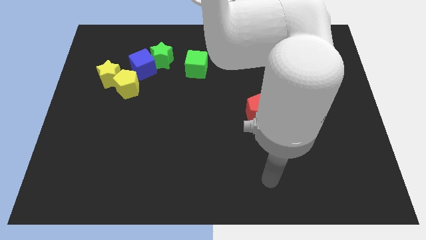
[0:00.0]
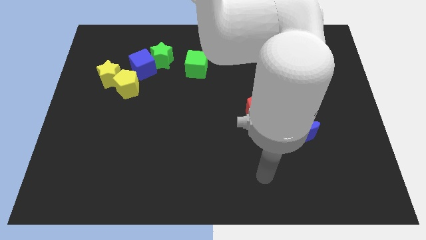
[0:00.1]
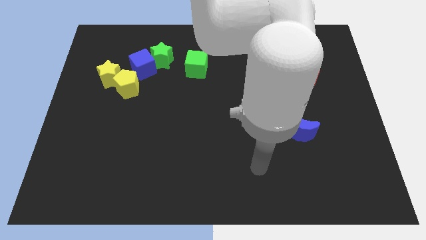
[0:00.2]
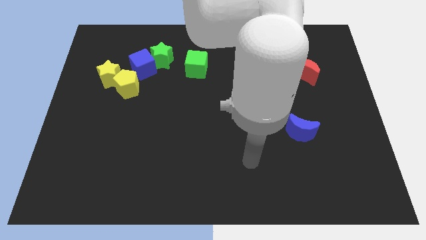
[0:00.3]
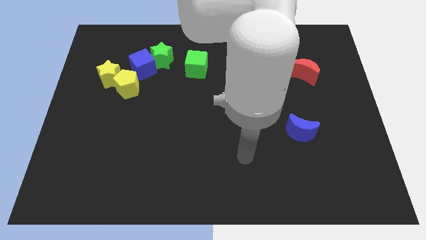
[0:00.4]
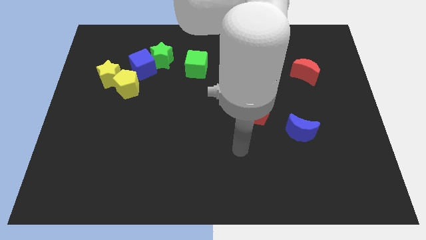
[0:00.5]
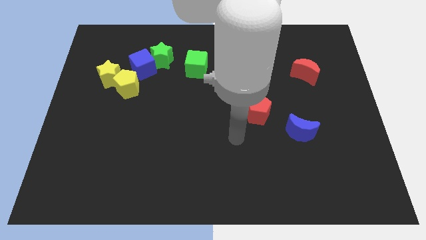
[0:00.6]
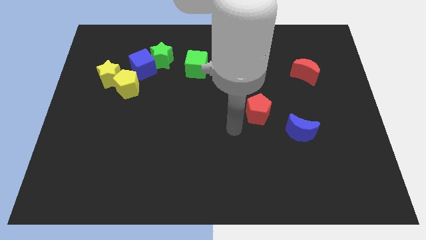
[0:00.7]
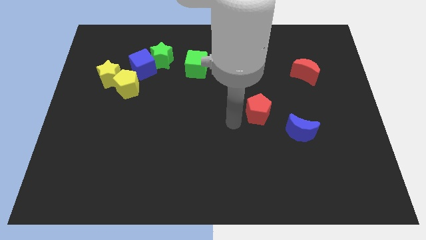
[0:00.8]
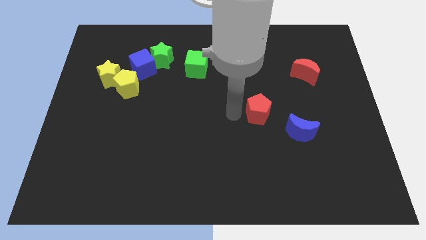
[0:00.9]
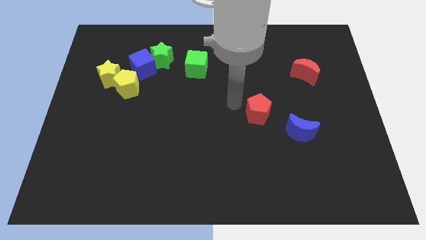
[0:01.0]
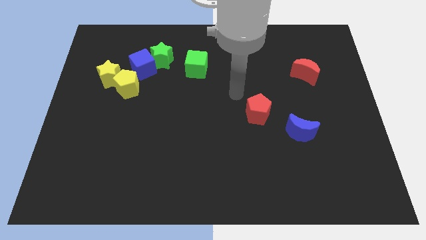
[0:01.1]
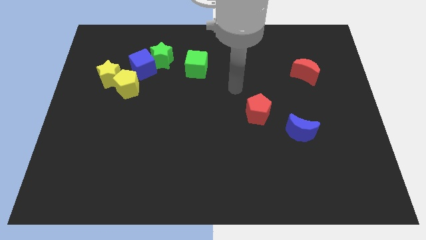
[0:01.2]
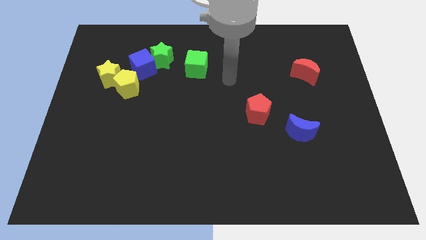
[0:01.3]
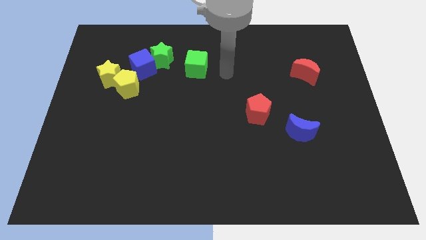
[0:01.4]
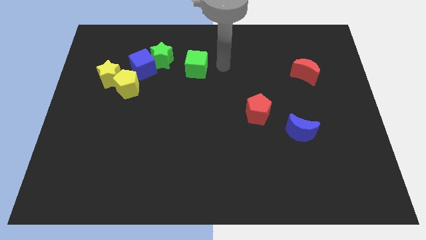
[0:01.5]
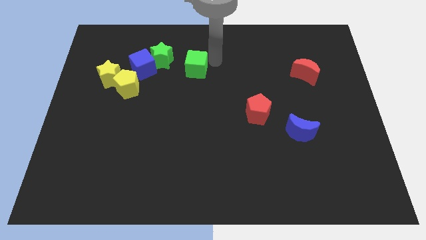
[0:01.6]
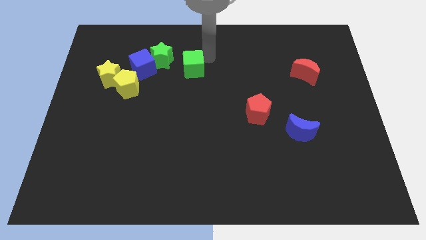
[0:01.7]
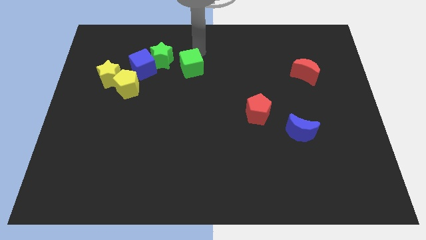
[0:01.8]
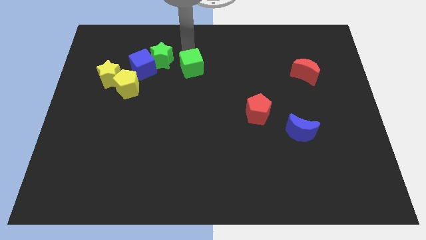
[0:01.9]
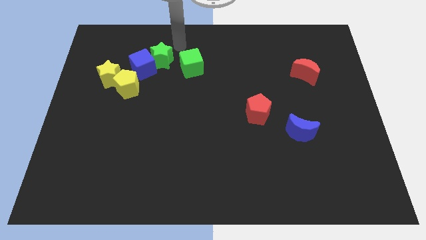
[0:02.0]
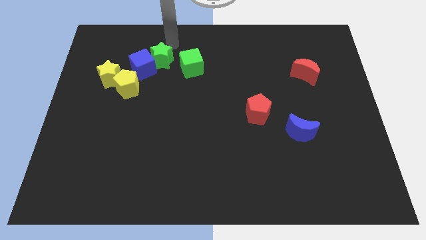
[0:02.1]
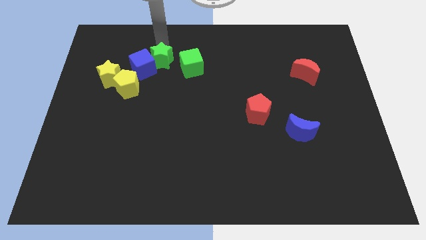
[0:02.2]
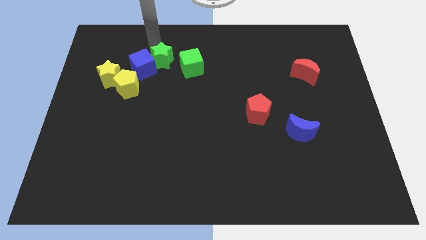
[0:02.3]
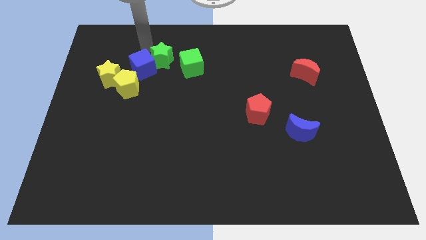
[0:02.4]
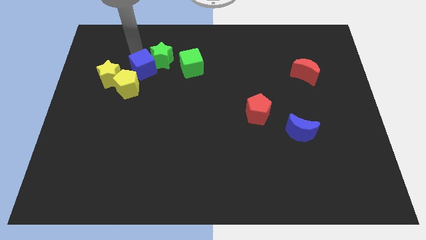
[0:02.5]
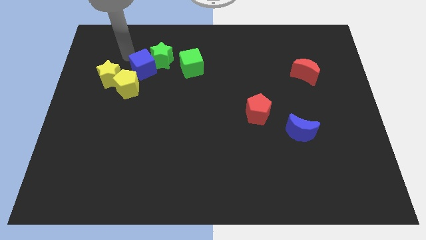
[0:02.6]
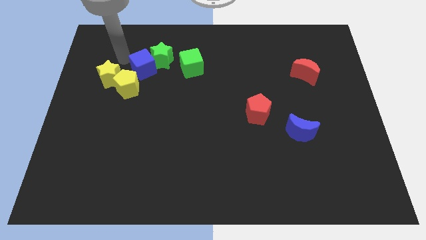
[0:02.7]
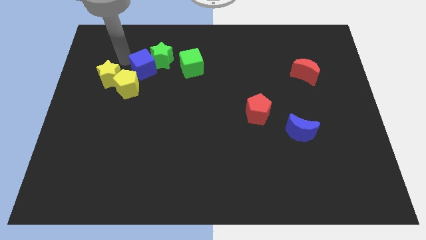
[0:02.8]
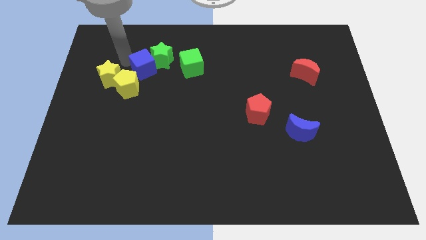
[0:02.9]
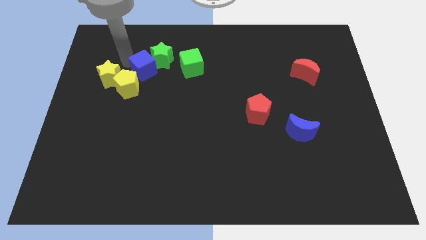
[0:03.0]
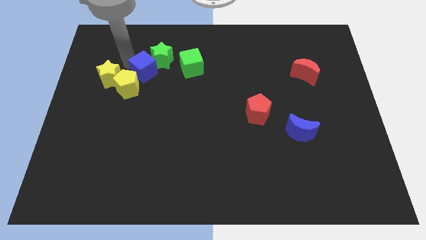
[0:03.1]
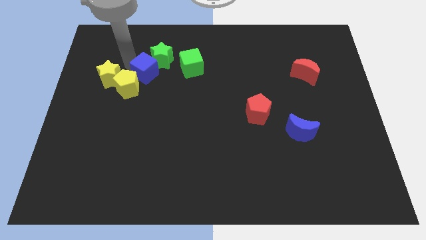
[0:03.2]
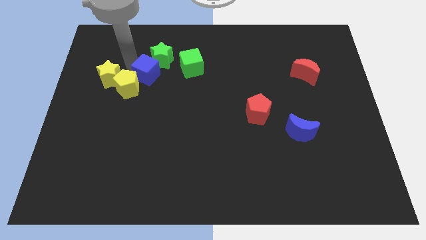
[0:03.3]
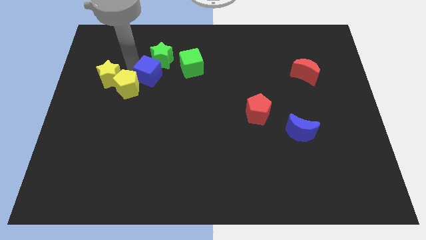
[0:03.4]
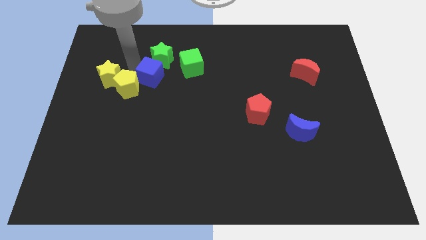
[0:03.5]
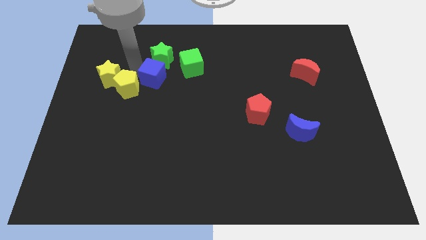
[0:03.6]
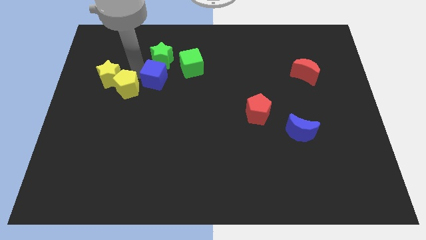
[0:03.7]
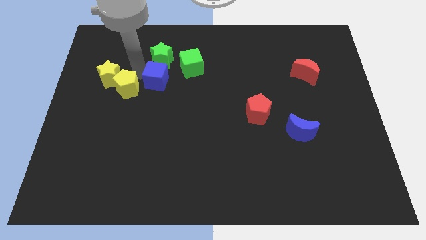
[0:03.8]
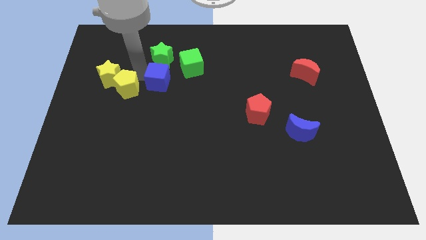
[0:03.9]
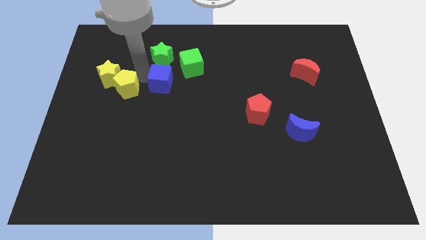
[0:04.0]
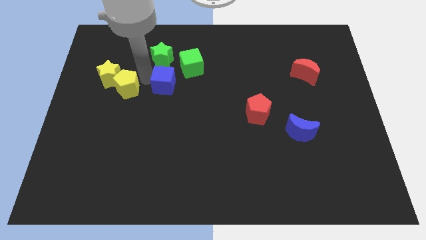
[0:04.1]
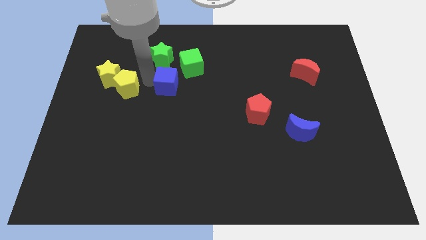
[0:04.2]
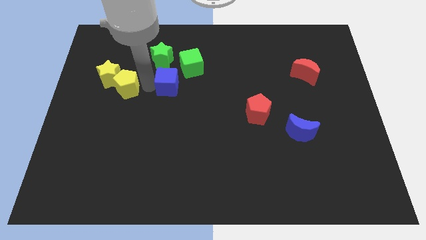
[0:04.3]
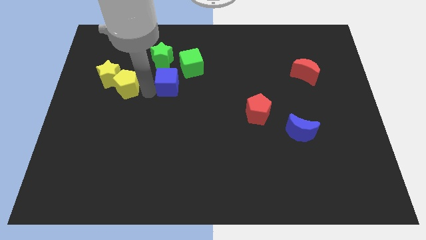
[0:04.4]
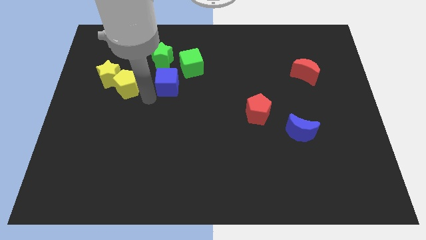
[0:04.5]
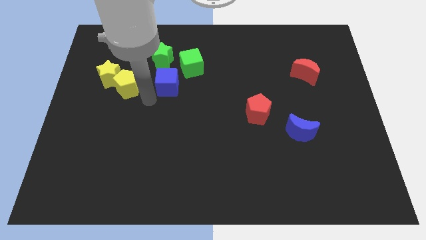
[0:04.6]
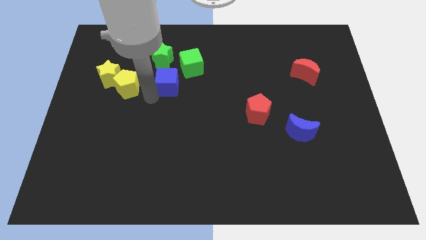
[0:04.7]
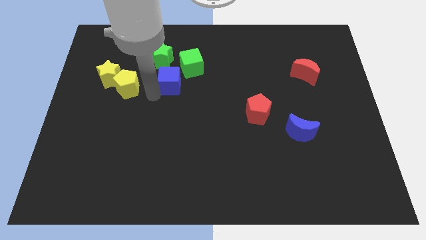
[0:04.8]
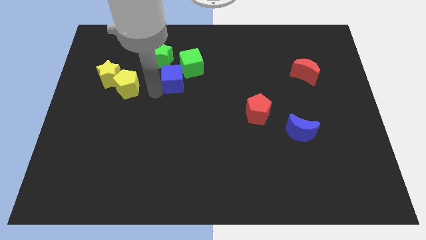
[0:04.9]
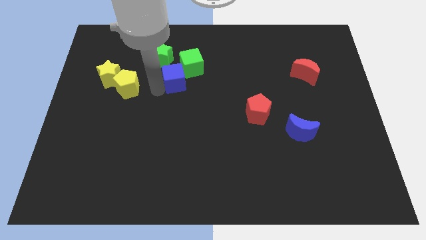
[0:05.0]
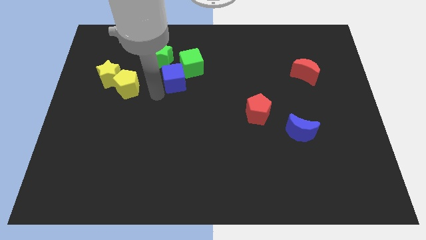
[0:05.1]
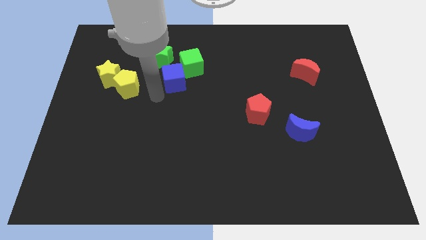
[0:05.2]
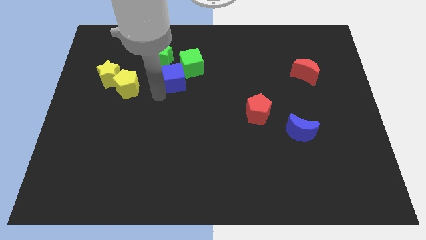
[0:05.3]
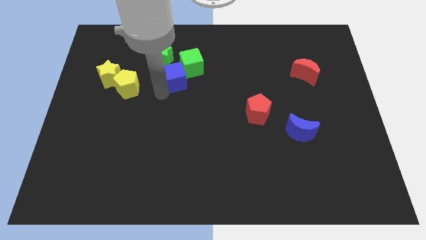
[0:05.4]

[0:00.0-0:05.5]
move the blue cube to the green cube

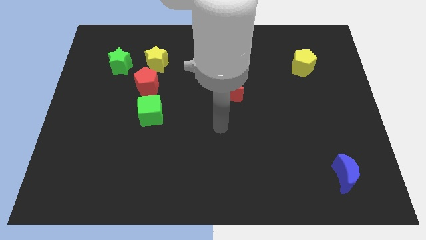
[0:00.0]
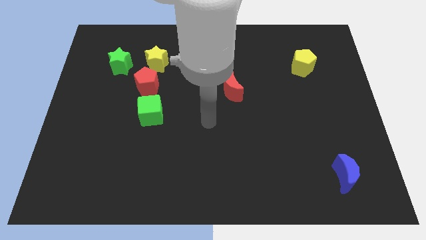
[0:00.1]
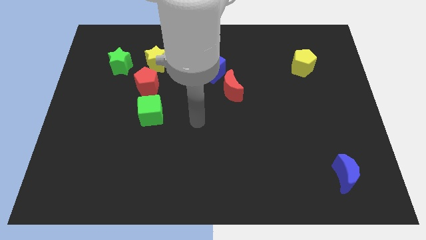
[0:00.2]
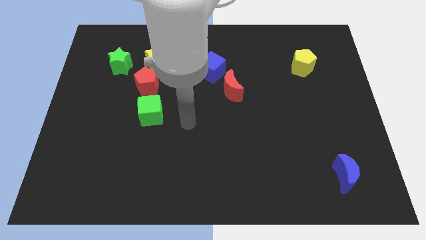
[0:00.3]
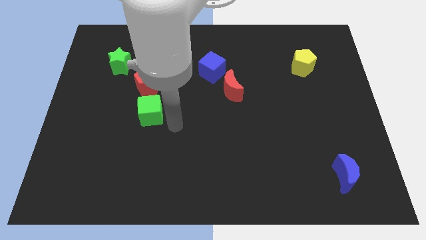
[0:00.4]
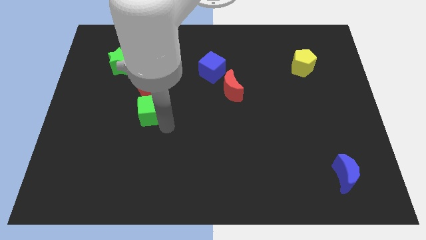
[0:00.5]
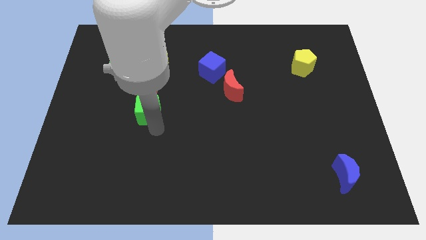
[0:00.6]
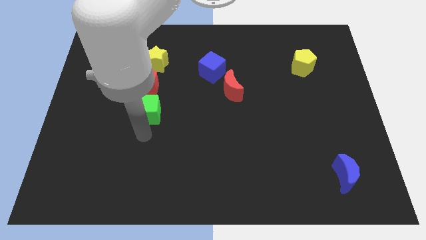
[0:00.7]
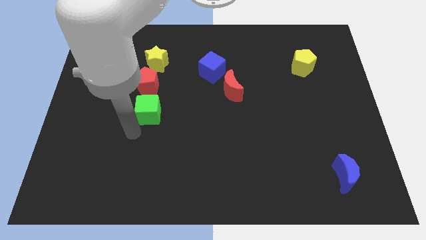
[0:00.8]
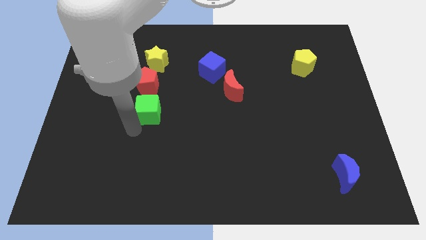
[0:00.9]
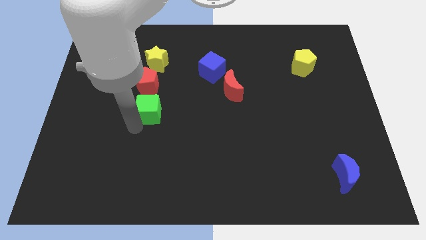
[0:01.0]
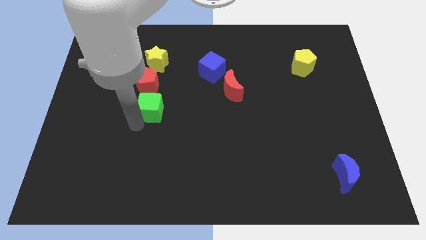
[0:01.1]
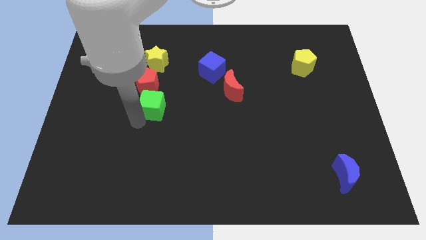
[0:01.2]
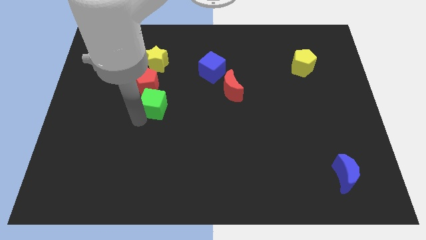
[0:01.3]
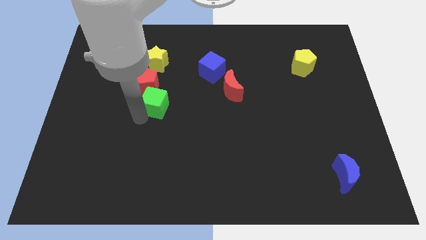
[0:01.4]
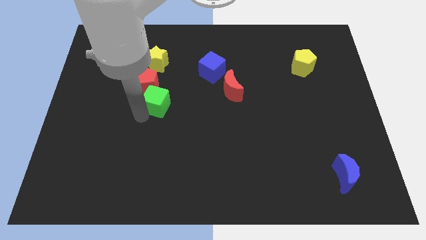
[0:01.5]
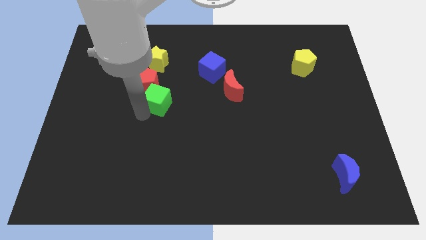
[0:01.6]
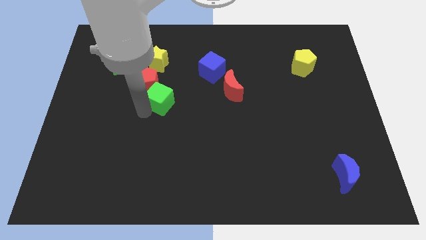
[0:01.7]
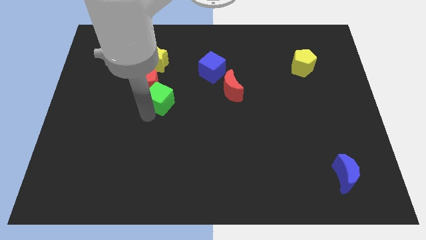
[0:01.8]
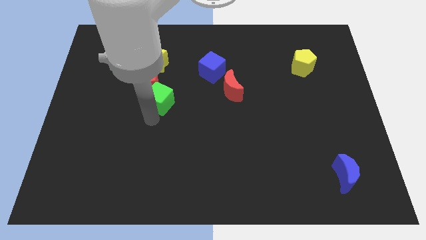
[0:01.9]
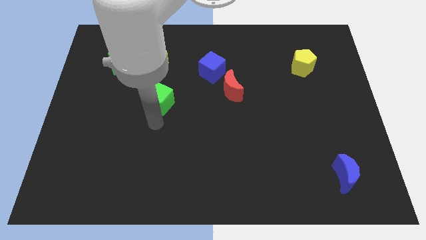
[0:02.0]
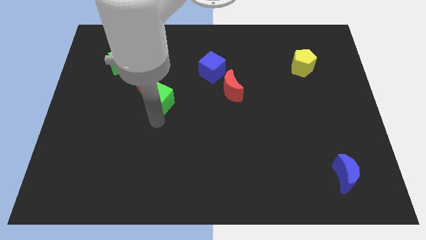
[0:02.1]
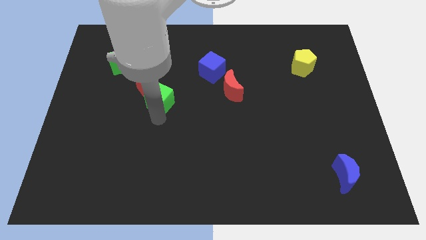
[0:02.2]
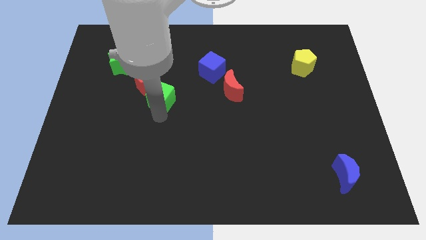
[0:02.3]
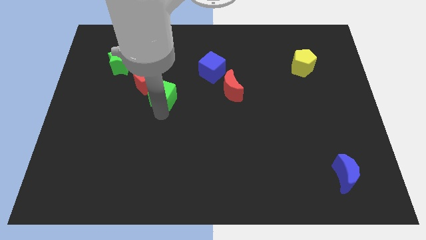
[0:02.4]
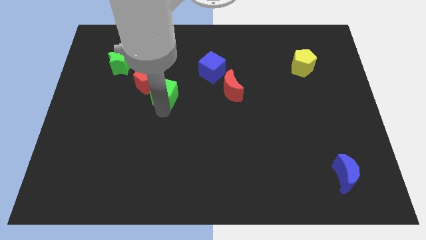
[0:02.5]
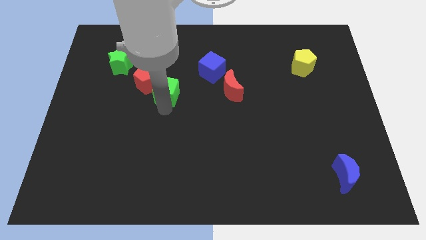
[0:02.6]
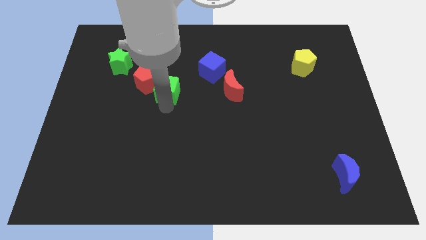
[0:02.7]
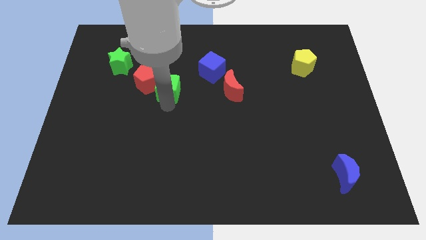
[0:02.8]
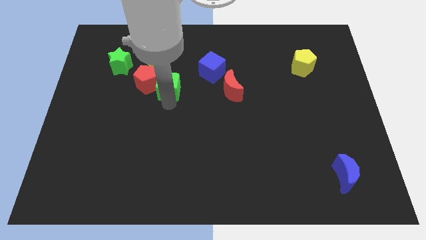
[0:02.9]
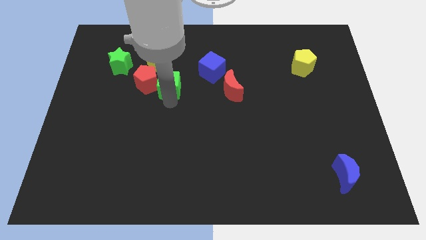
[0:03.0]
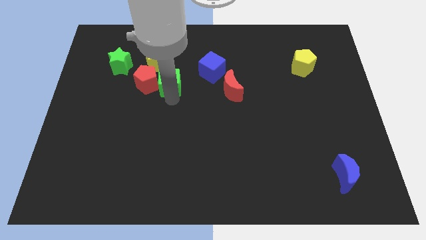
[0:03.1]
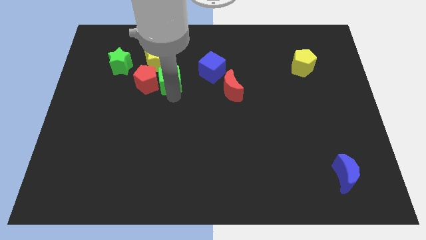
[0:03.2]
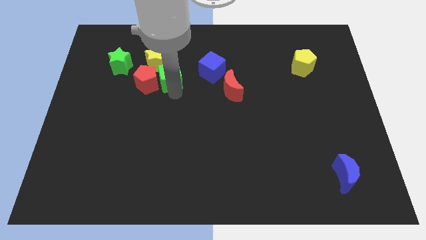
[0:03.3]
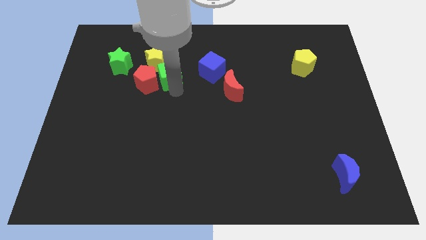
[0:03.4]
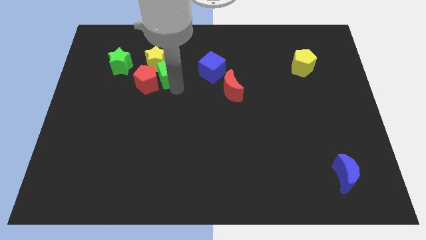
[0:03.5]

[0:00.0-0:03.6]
put the green cube towards the yellow star
